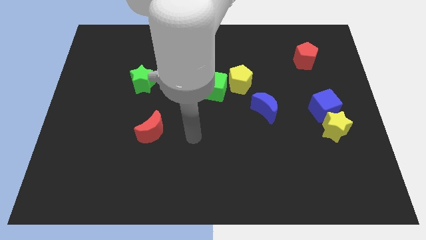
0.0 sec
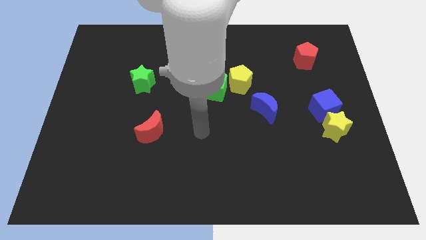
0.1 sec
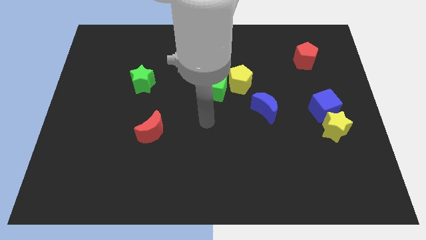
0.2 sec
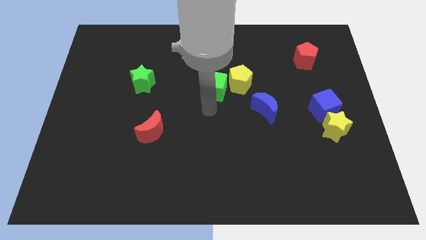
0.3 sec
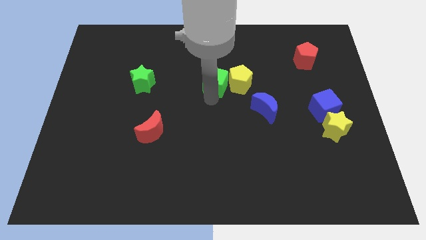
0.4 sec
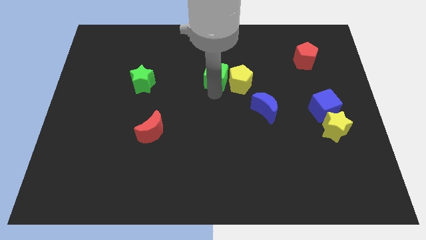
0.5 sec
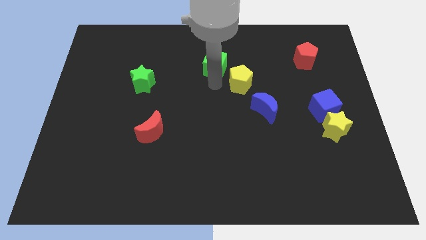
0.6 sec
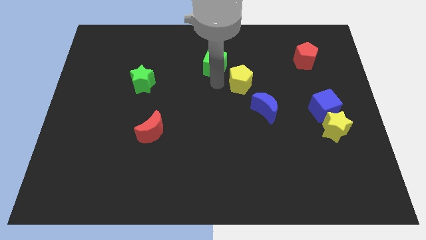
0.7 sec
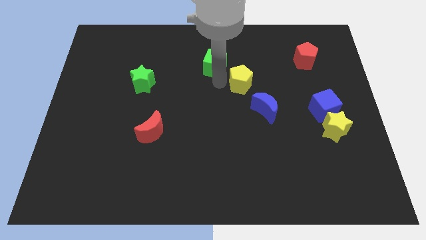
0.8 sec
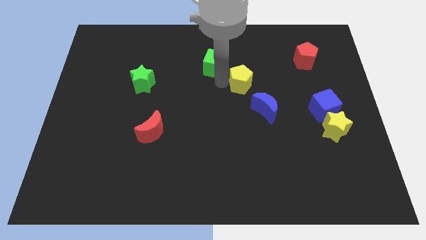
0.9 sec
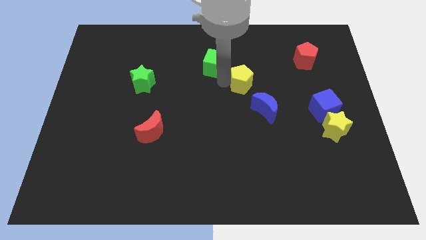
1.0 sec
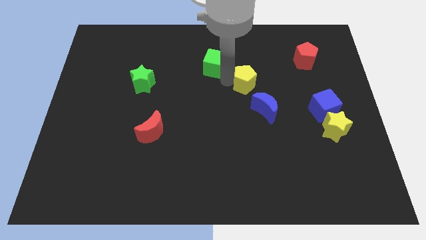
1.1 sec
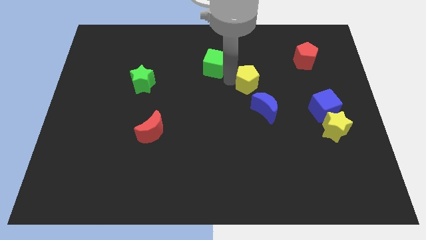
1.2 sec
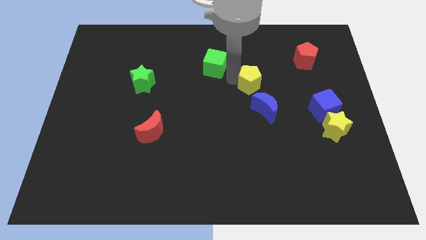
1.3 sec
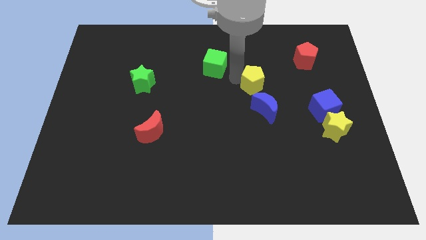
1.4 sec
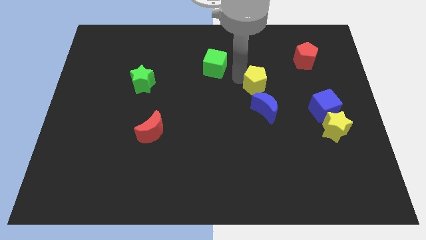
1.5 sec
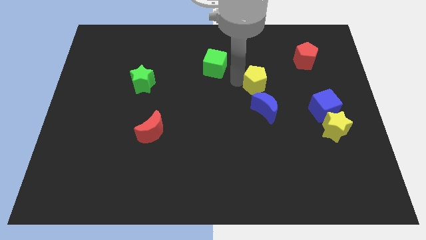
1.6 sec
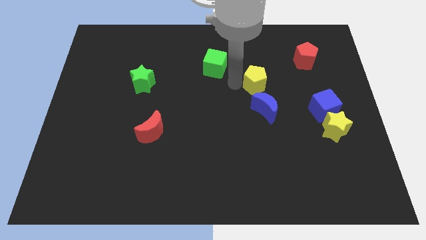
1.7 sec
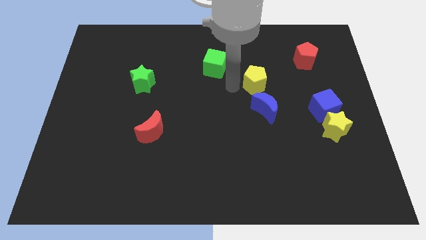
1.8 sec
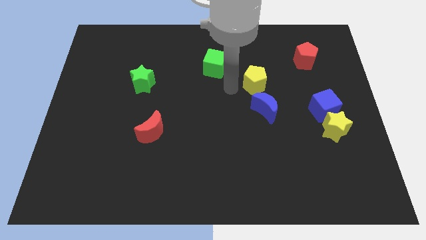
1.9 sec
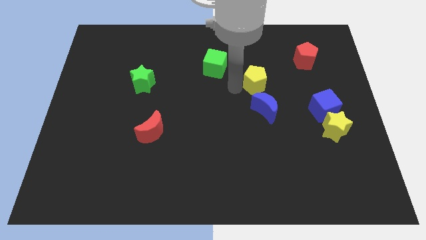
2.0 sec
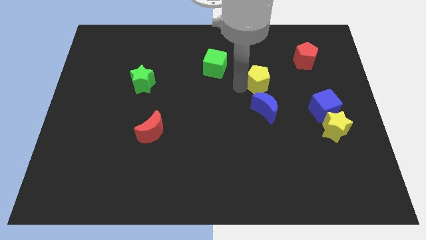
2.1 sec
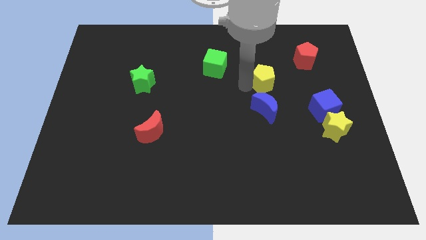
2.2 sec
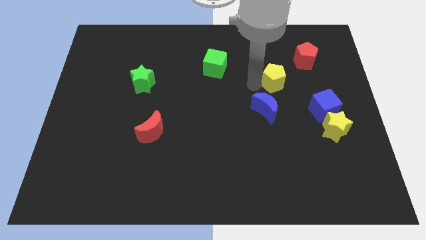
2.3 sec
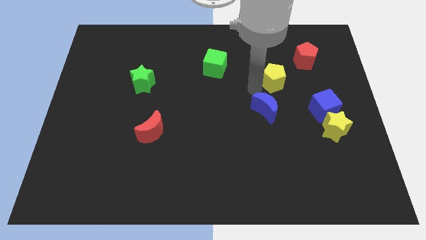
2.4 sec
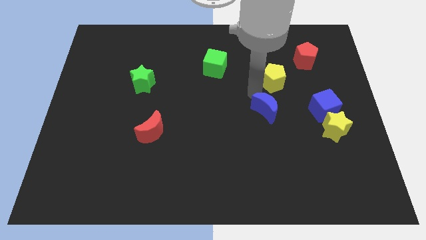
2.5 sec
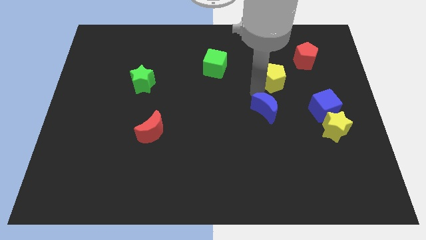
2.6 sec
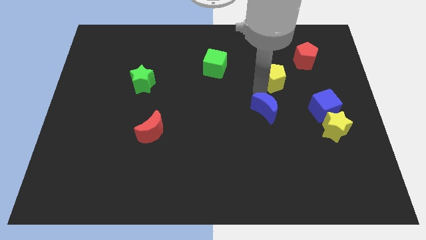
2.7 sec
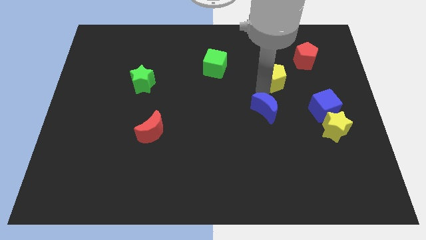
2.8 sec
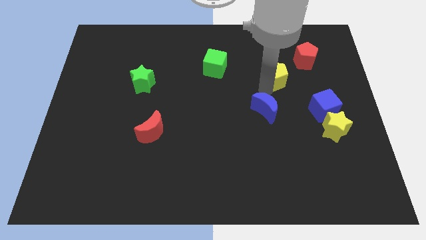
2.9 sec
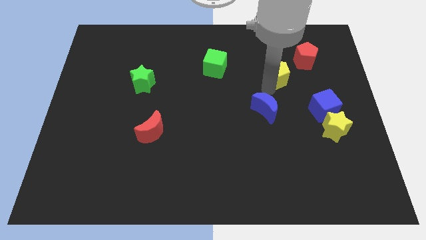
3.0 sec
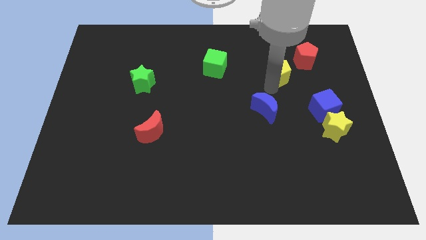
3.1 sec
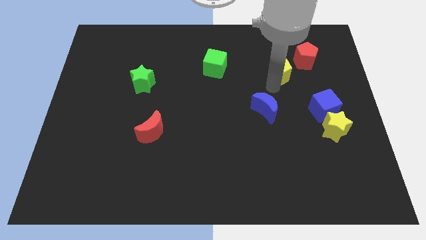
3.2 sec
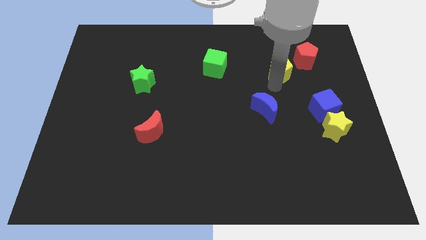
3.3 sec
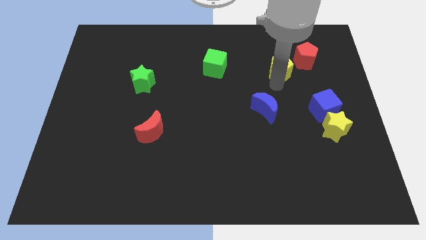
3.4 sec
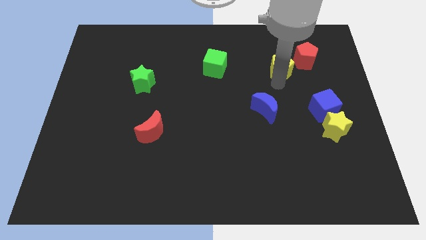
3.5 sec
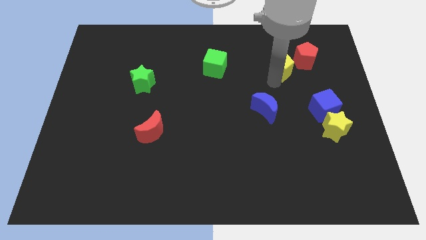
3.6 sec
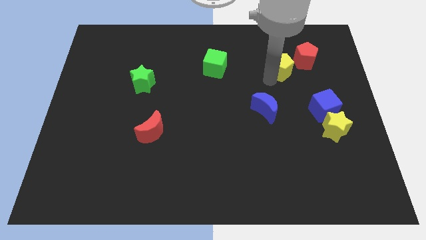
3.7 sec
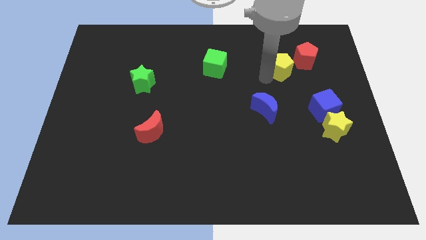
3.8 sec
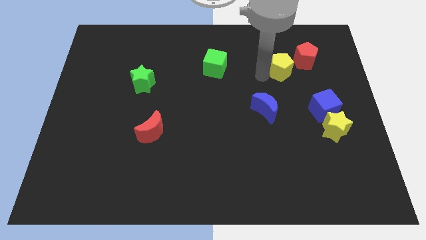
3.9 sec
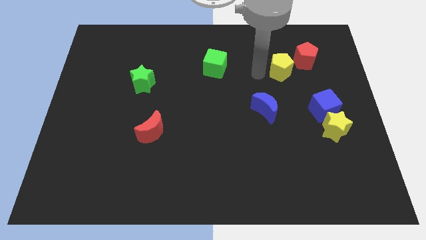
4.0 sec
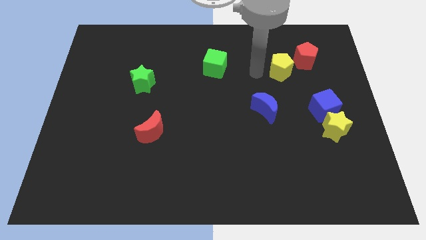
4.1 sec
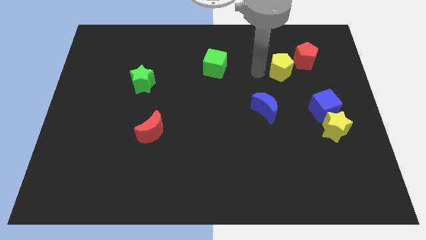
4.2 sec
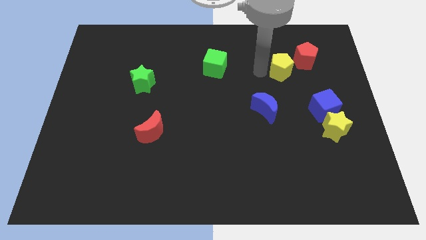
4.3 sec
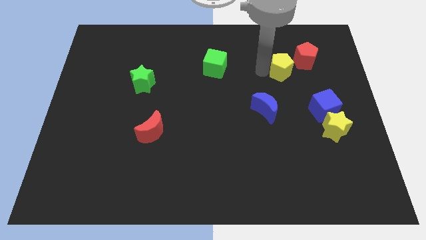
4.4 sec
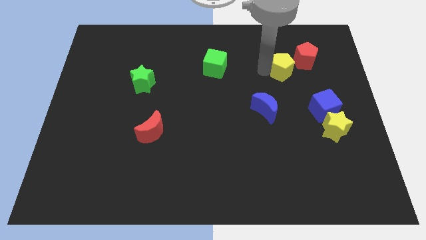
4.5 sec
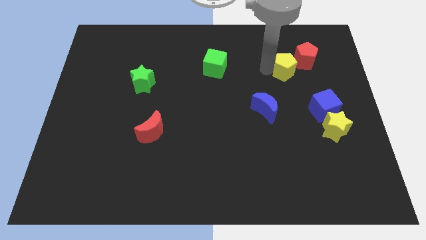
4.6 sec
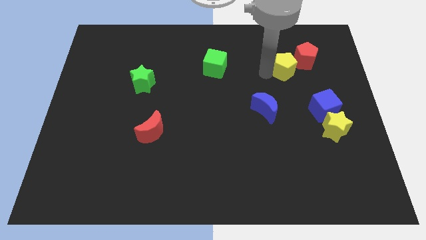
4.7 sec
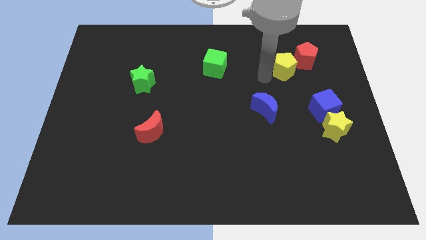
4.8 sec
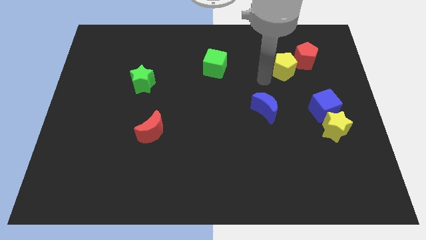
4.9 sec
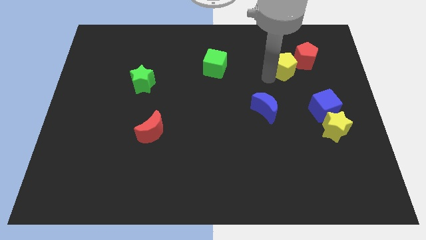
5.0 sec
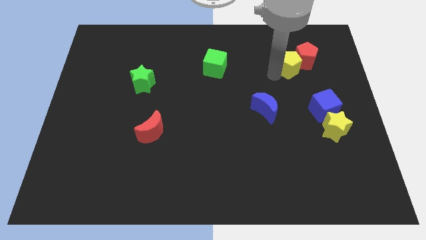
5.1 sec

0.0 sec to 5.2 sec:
put the yellow pentagon to the red pentagon

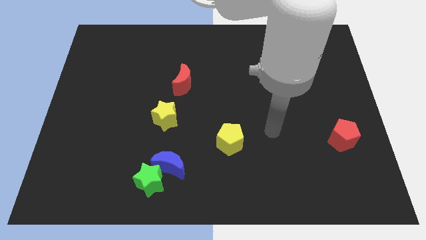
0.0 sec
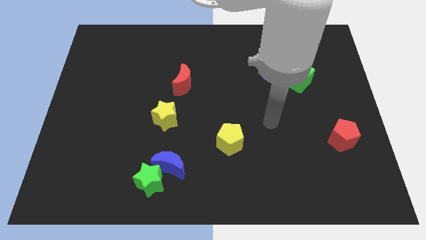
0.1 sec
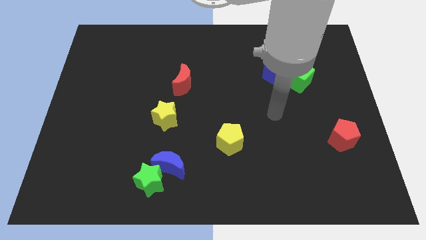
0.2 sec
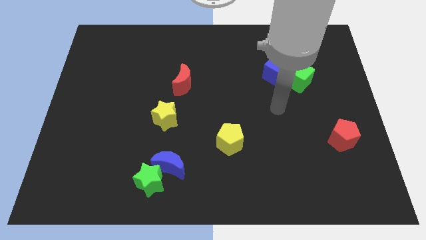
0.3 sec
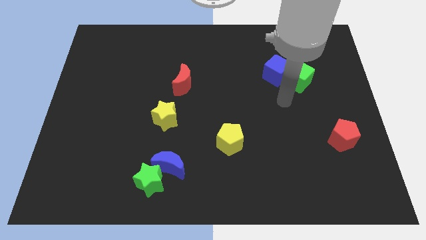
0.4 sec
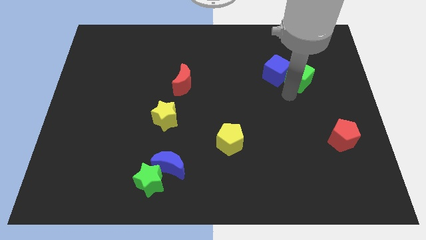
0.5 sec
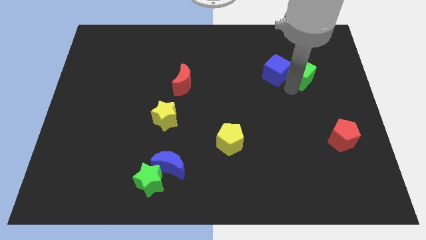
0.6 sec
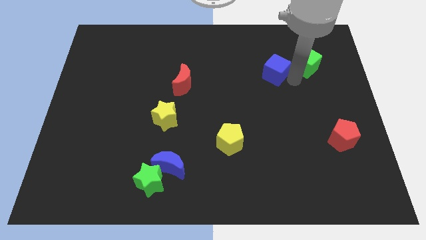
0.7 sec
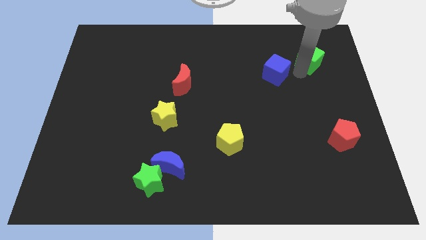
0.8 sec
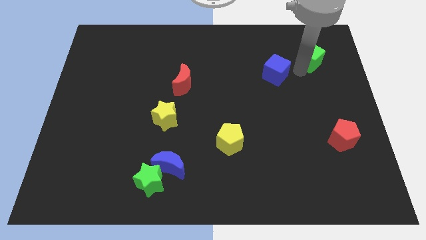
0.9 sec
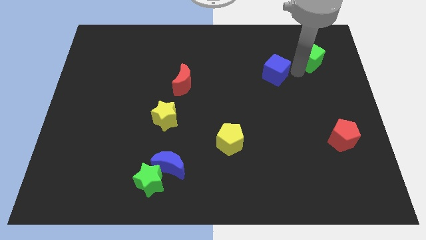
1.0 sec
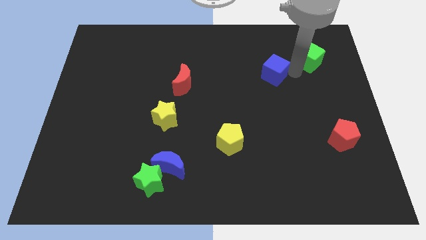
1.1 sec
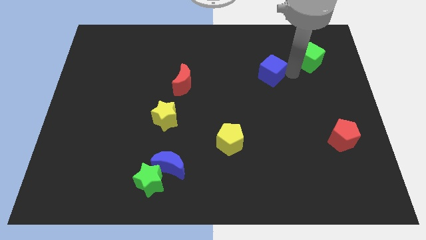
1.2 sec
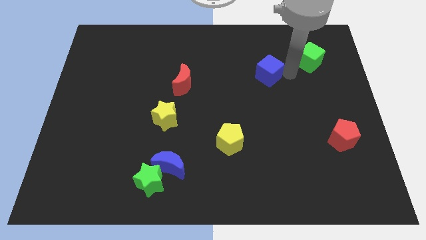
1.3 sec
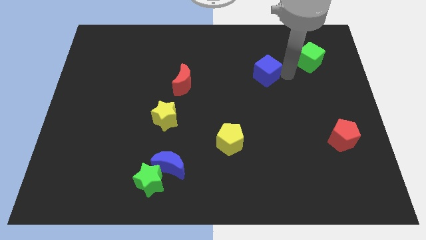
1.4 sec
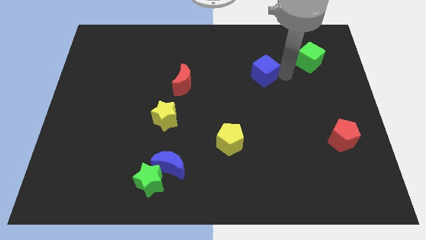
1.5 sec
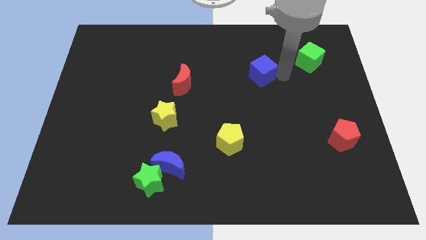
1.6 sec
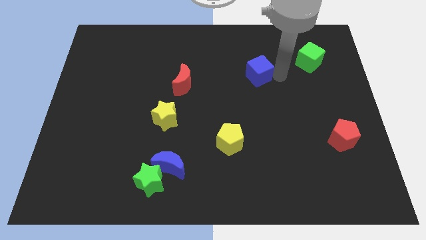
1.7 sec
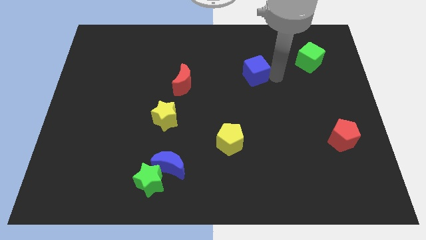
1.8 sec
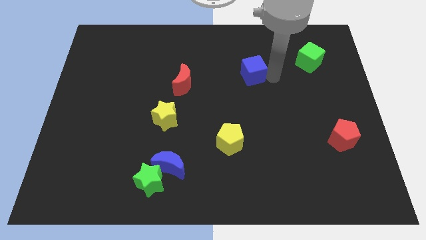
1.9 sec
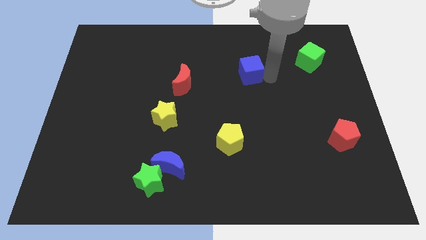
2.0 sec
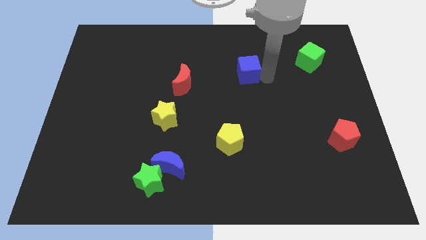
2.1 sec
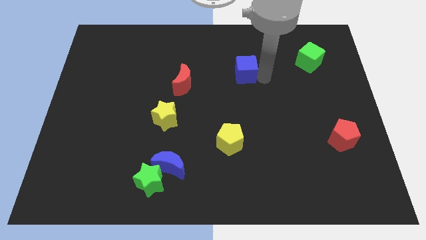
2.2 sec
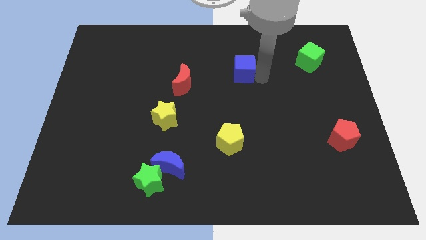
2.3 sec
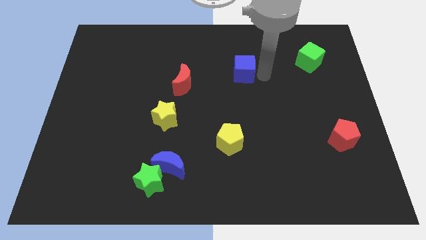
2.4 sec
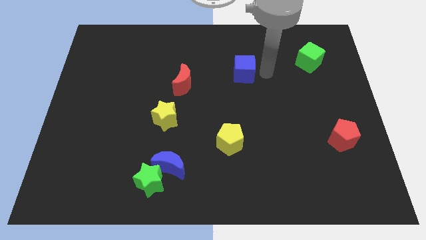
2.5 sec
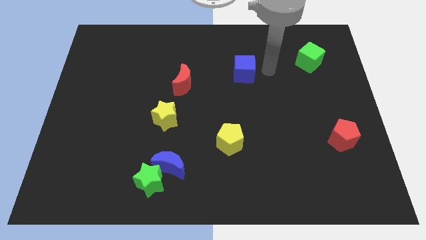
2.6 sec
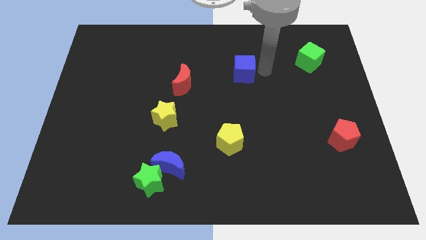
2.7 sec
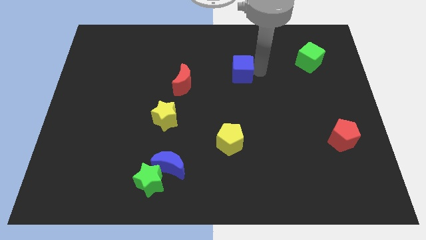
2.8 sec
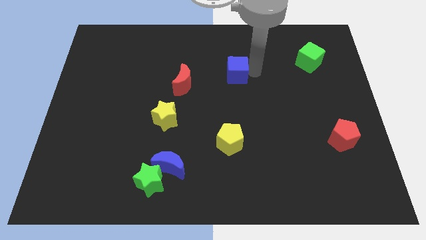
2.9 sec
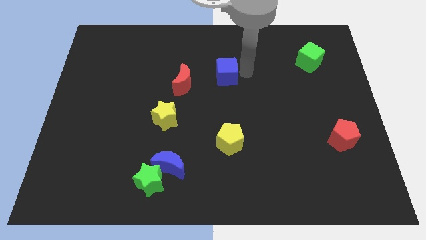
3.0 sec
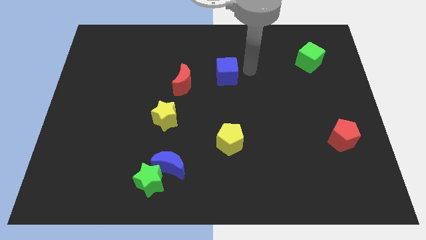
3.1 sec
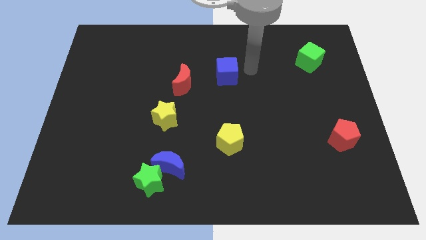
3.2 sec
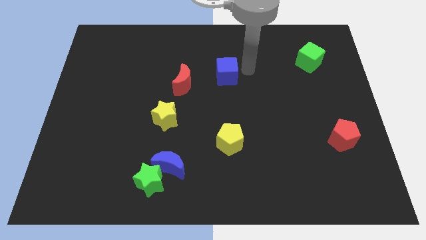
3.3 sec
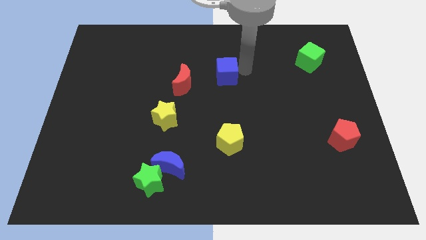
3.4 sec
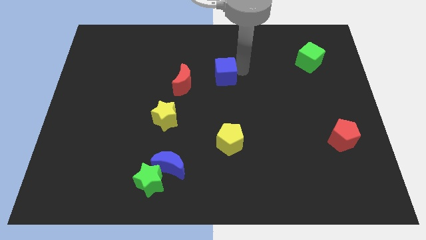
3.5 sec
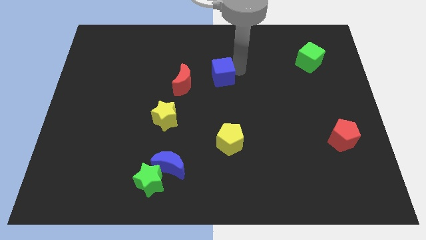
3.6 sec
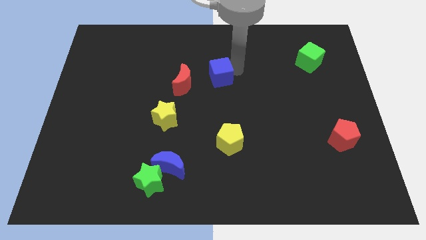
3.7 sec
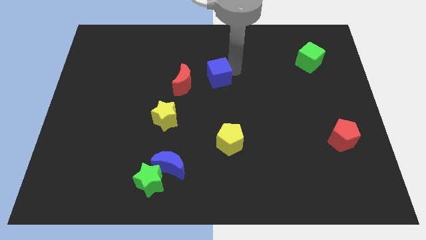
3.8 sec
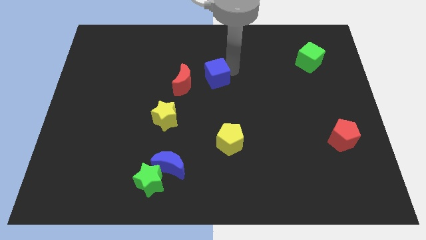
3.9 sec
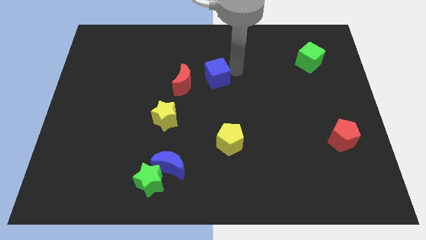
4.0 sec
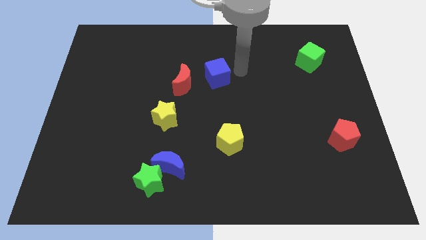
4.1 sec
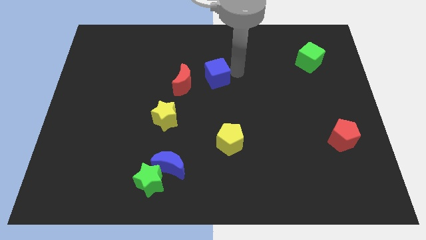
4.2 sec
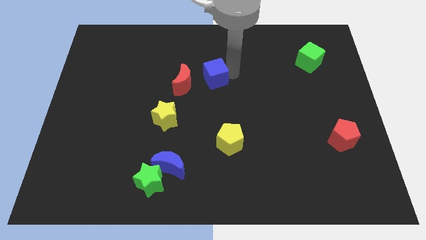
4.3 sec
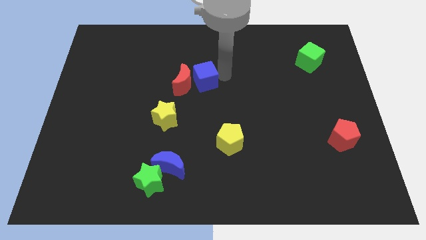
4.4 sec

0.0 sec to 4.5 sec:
push the blue cube next to the red moon
